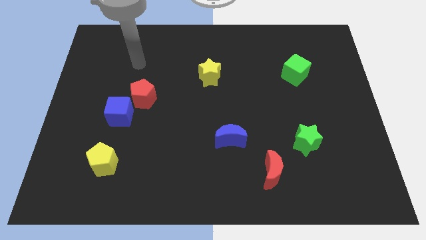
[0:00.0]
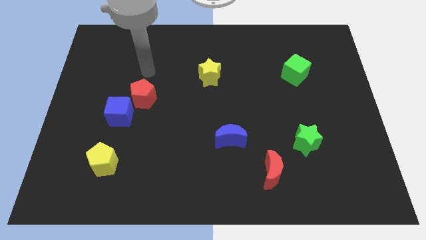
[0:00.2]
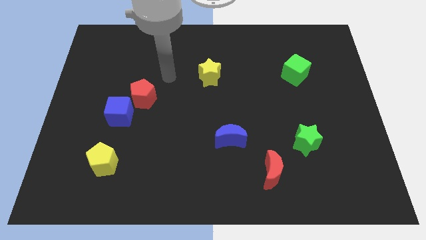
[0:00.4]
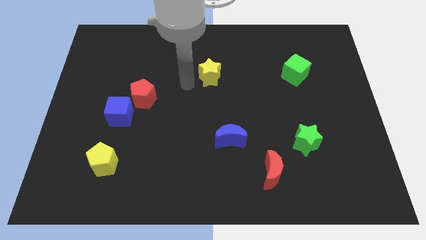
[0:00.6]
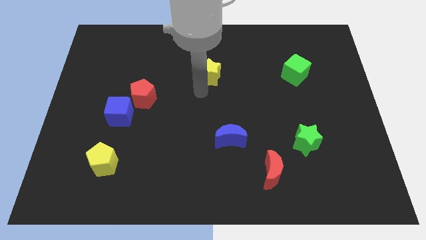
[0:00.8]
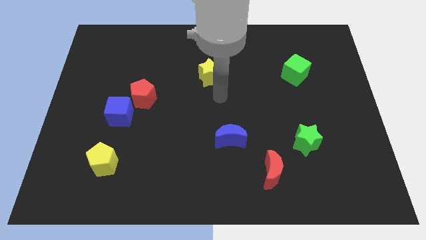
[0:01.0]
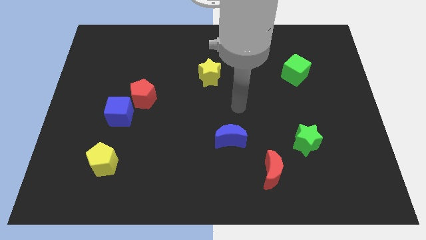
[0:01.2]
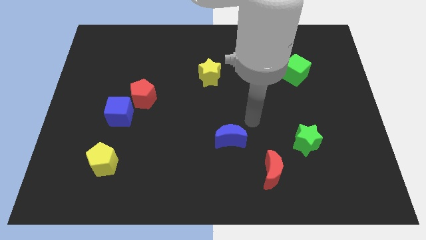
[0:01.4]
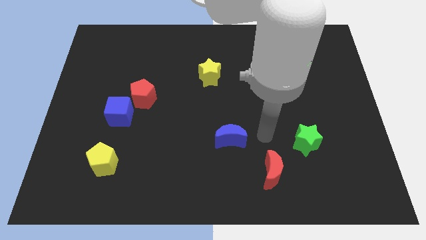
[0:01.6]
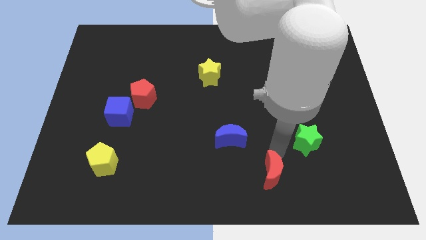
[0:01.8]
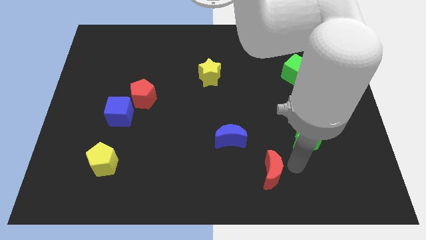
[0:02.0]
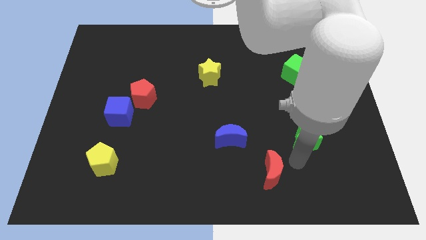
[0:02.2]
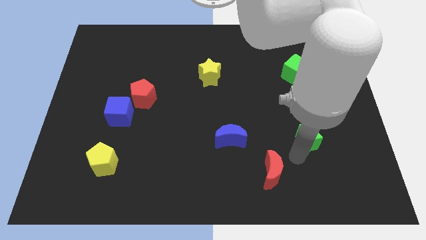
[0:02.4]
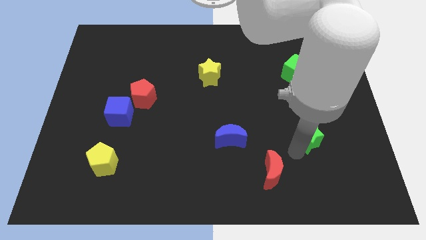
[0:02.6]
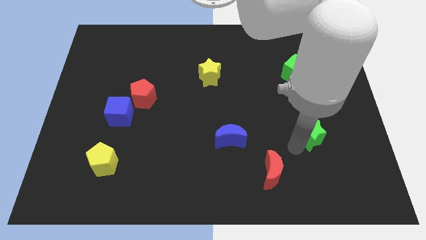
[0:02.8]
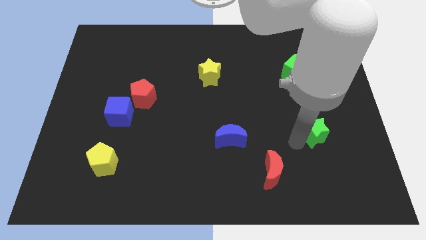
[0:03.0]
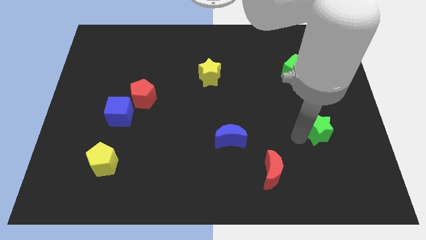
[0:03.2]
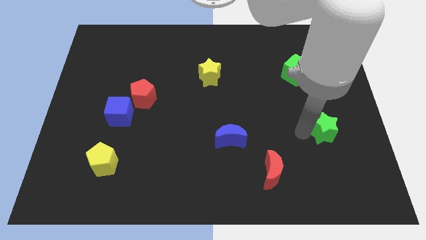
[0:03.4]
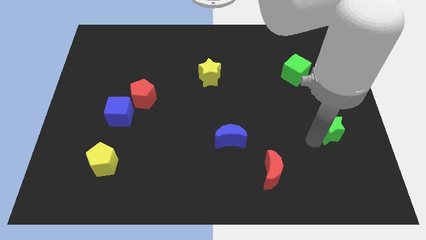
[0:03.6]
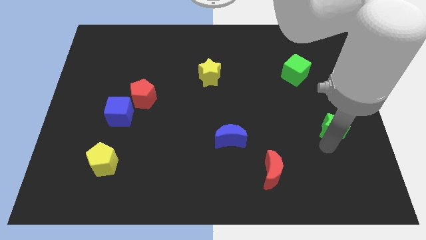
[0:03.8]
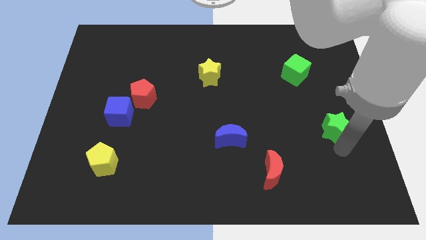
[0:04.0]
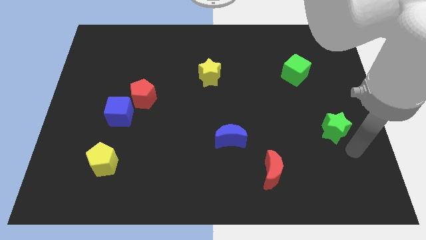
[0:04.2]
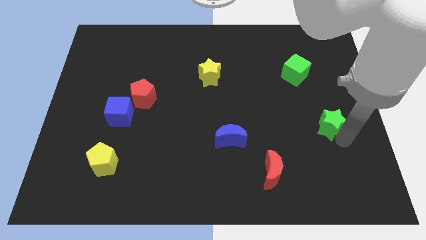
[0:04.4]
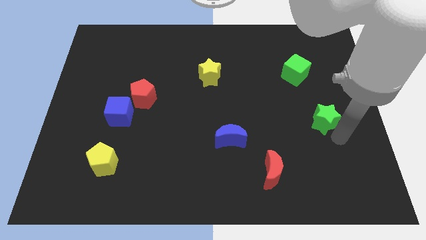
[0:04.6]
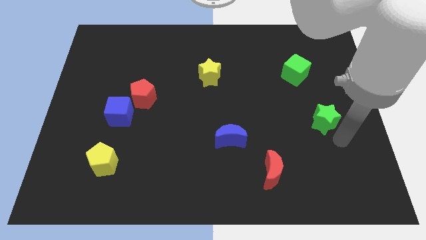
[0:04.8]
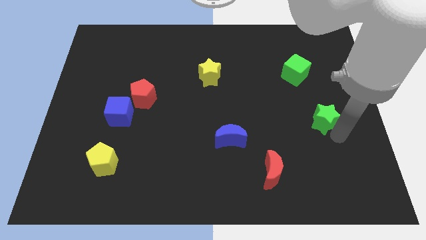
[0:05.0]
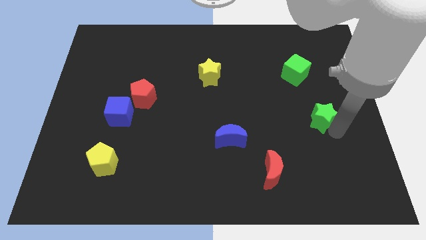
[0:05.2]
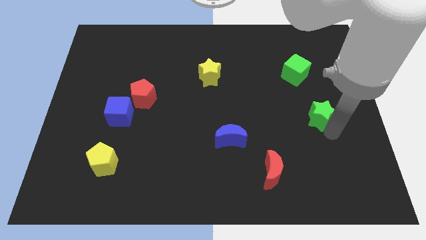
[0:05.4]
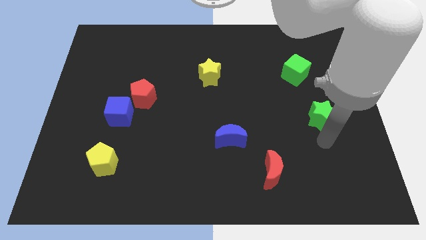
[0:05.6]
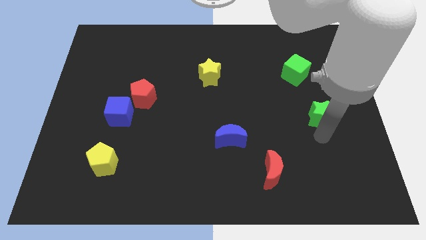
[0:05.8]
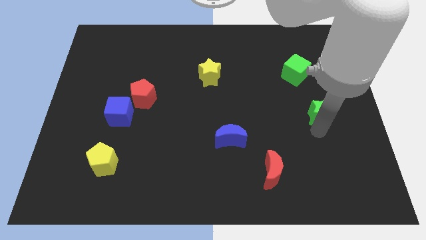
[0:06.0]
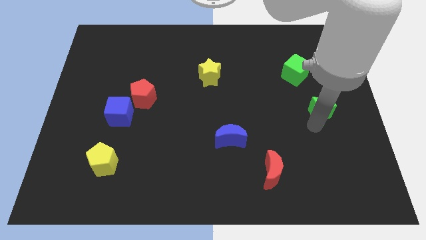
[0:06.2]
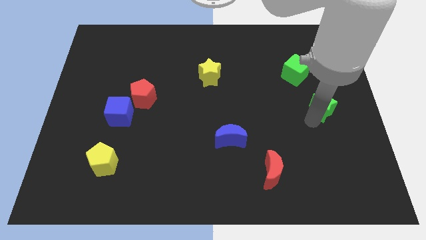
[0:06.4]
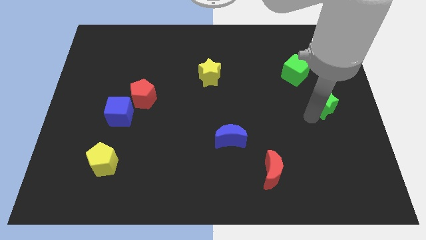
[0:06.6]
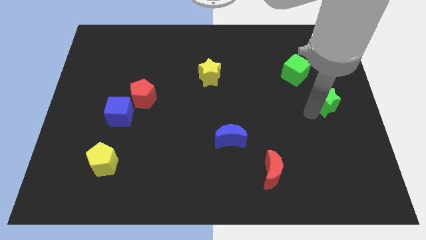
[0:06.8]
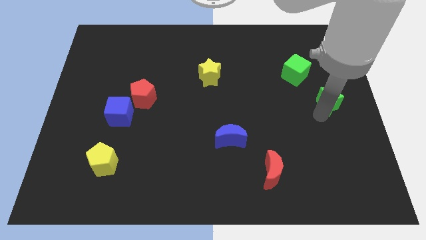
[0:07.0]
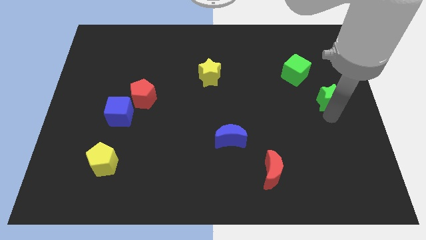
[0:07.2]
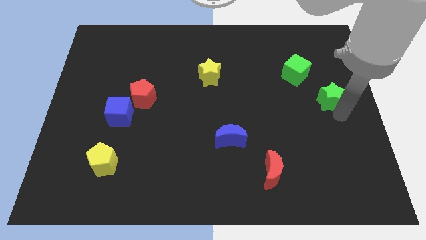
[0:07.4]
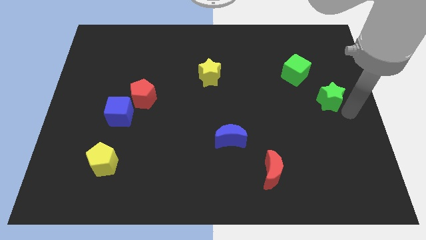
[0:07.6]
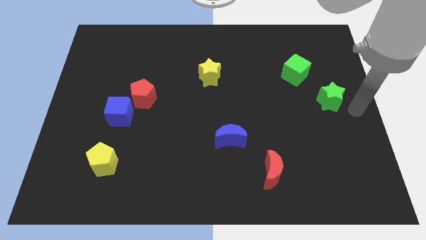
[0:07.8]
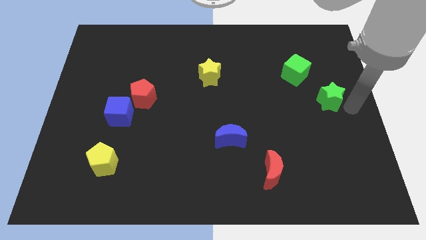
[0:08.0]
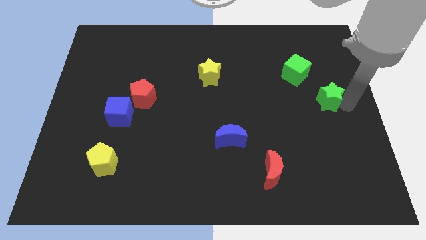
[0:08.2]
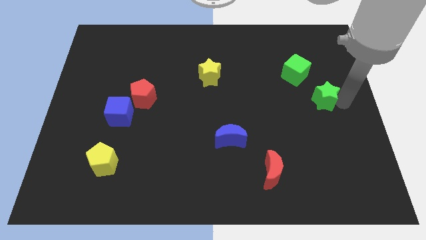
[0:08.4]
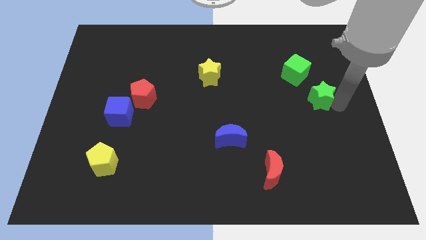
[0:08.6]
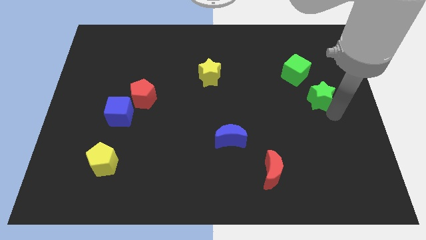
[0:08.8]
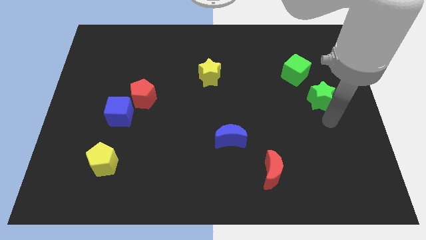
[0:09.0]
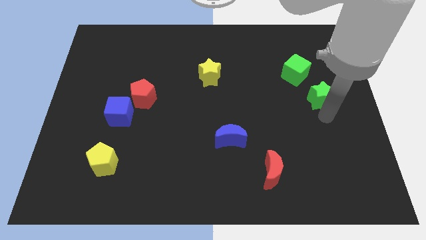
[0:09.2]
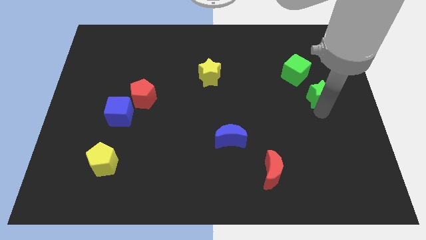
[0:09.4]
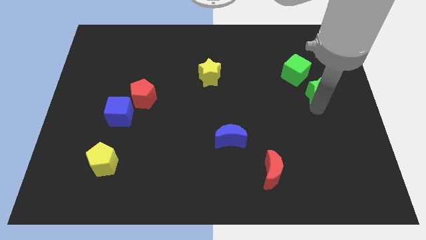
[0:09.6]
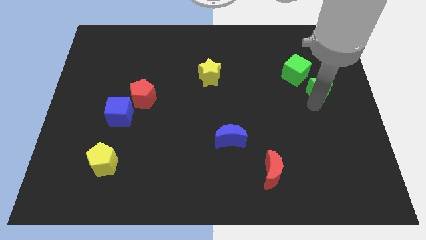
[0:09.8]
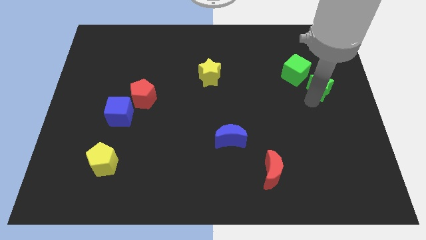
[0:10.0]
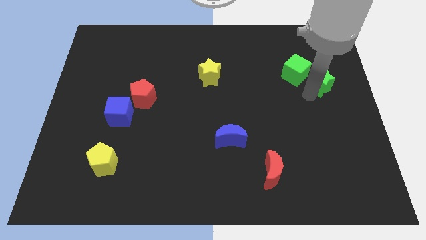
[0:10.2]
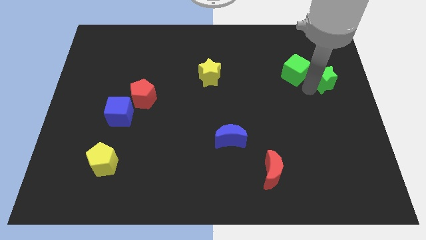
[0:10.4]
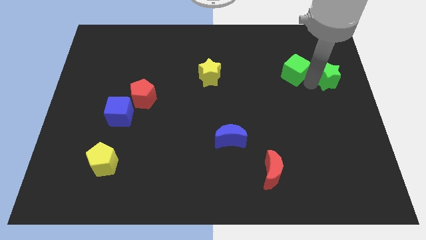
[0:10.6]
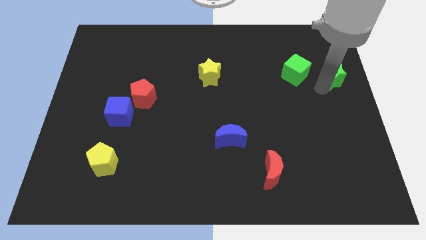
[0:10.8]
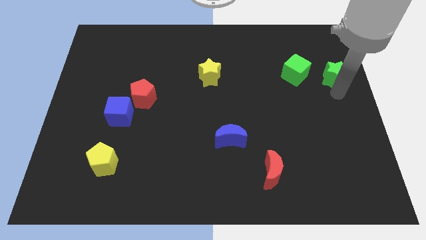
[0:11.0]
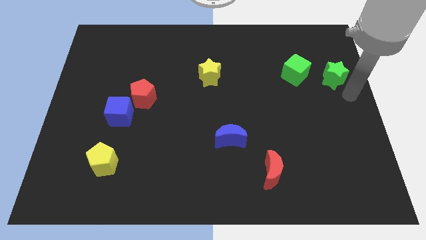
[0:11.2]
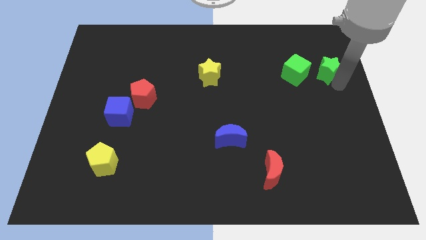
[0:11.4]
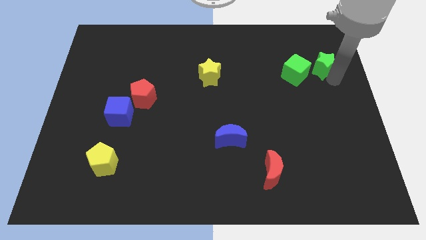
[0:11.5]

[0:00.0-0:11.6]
push the green star to the top right side of the green cube
